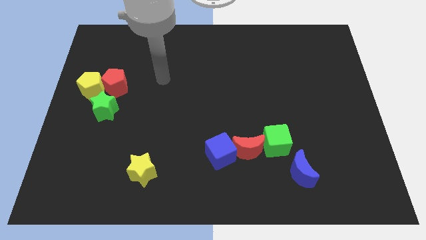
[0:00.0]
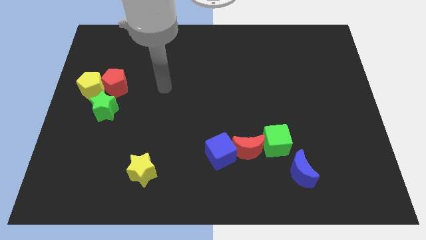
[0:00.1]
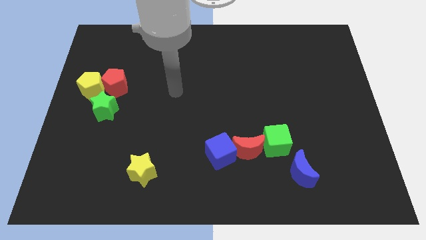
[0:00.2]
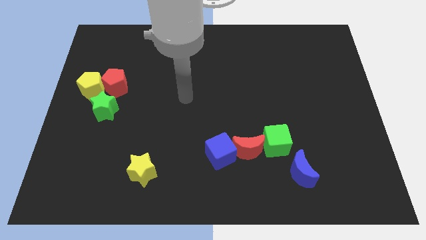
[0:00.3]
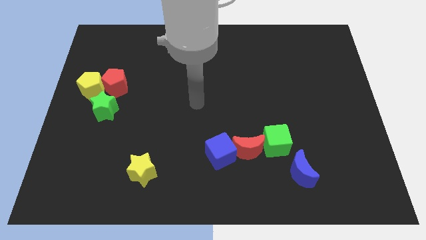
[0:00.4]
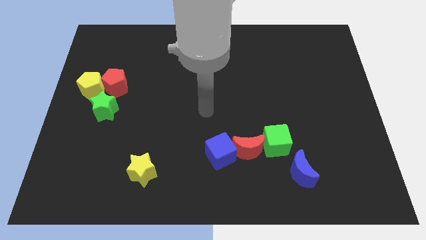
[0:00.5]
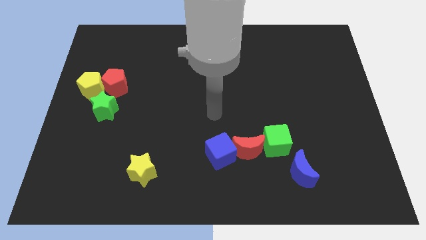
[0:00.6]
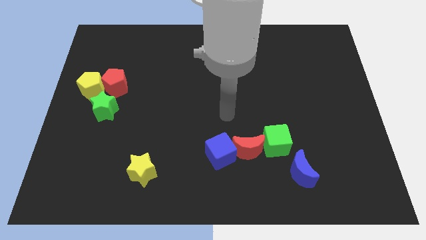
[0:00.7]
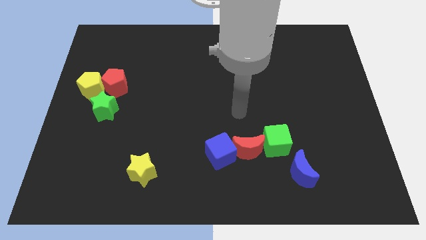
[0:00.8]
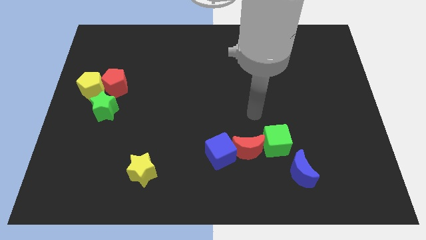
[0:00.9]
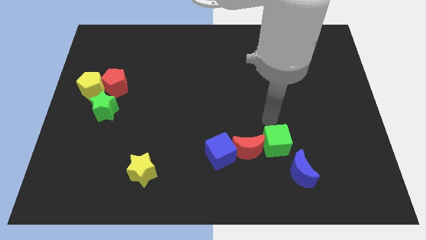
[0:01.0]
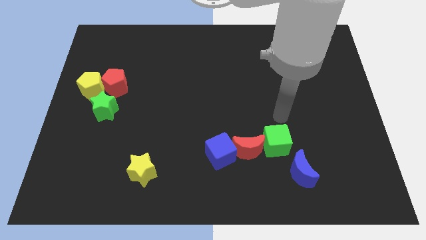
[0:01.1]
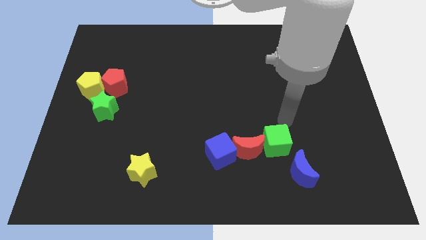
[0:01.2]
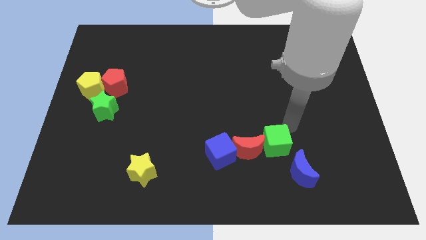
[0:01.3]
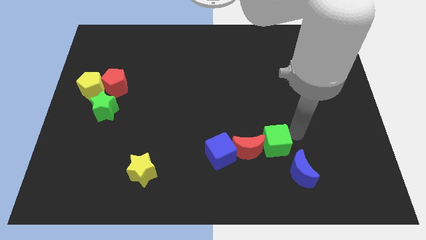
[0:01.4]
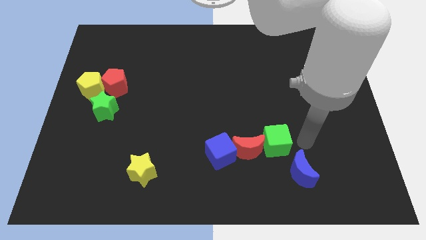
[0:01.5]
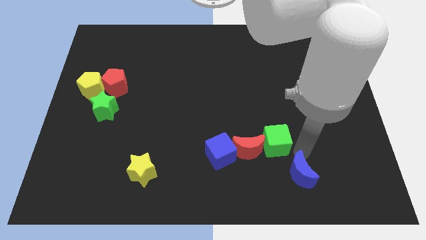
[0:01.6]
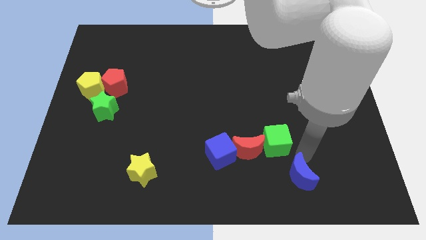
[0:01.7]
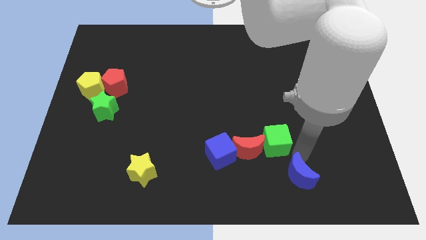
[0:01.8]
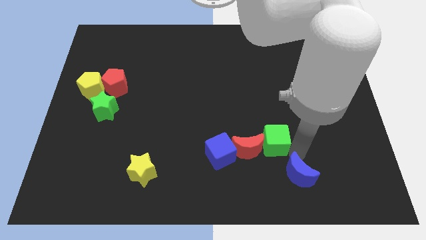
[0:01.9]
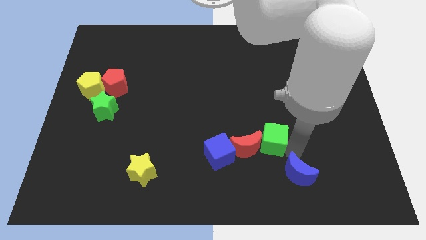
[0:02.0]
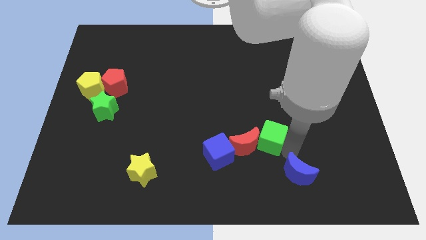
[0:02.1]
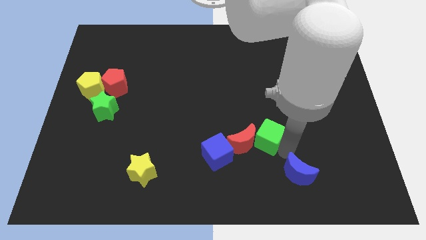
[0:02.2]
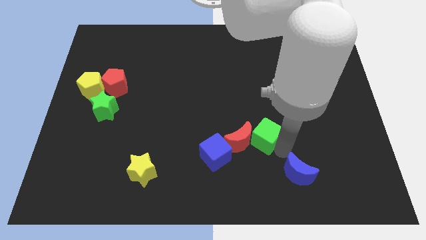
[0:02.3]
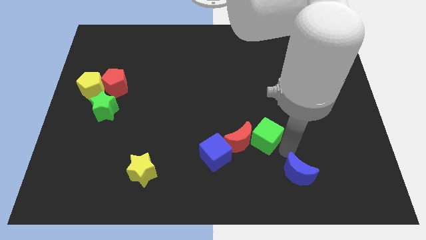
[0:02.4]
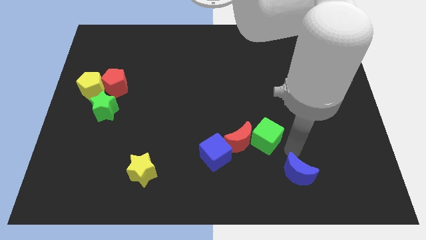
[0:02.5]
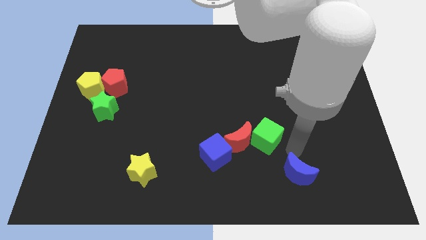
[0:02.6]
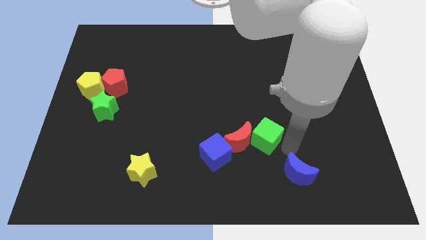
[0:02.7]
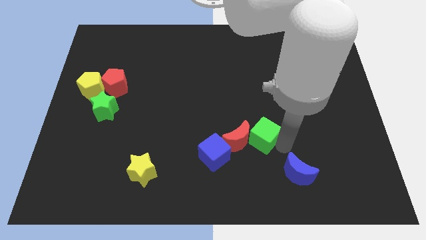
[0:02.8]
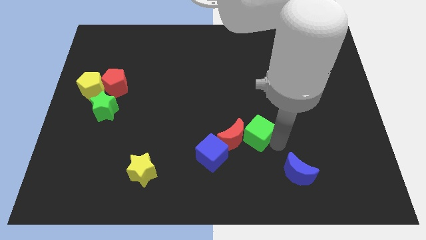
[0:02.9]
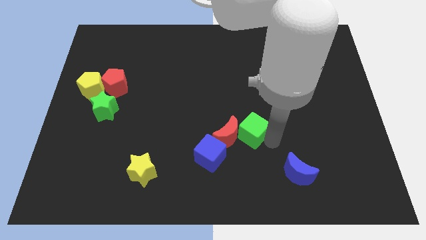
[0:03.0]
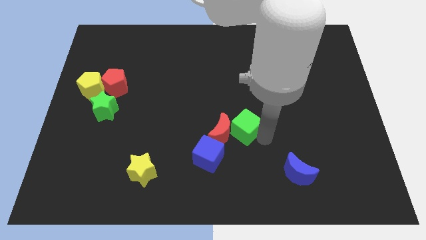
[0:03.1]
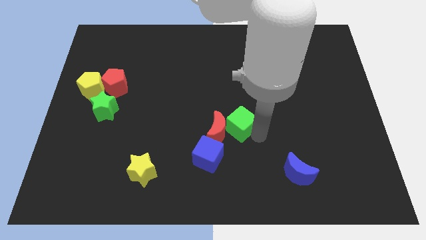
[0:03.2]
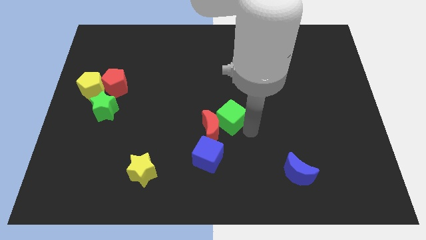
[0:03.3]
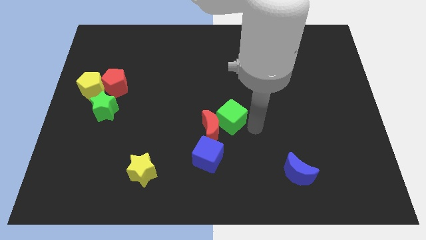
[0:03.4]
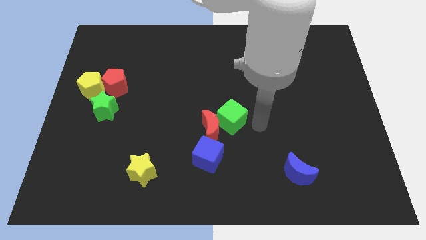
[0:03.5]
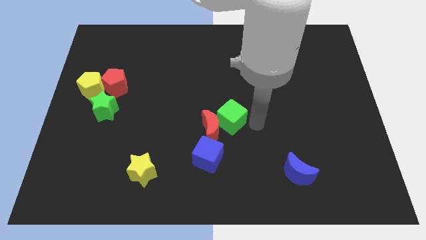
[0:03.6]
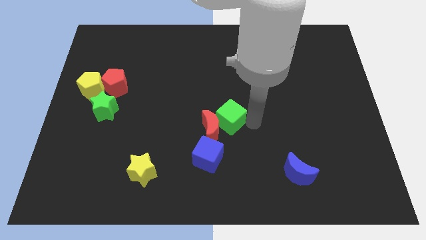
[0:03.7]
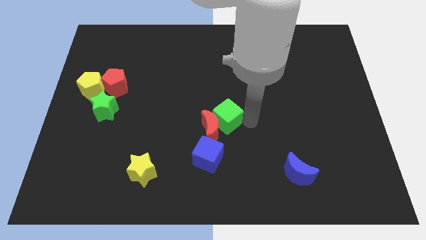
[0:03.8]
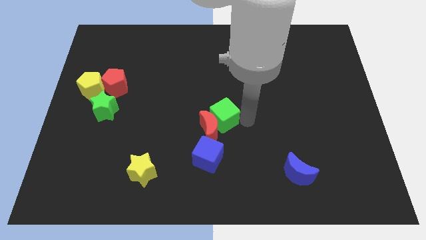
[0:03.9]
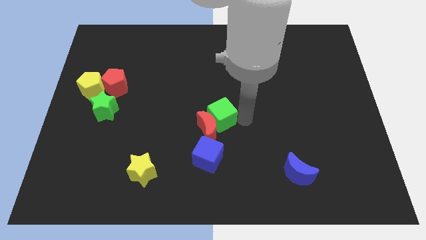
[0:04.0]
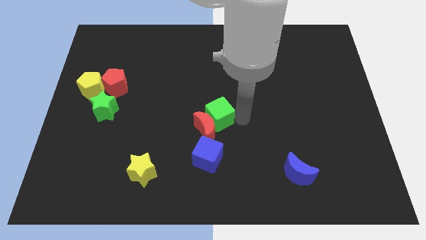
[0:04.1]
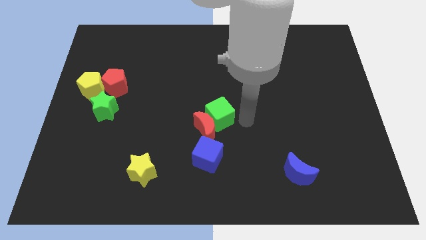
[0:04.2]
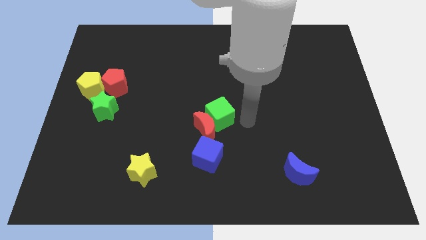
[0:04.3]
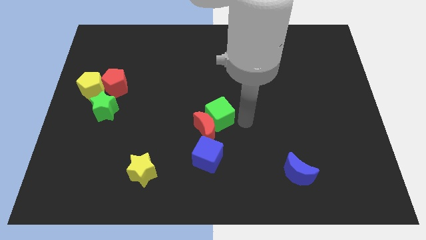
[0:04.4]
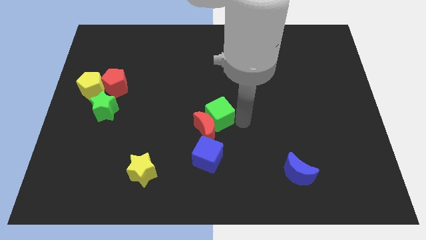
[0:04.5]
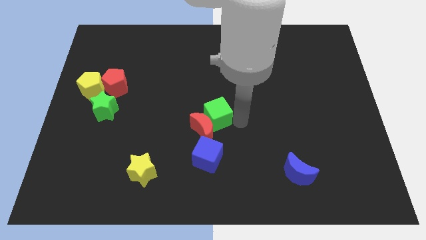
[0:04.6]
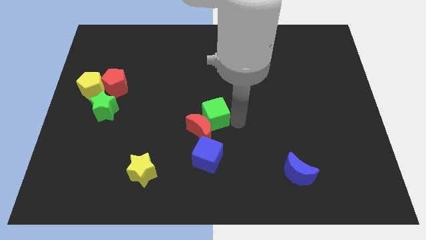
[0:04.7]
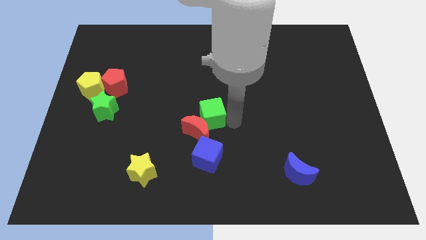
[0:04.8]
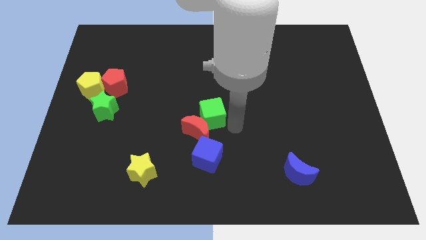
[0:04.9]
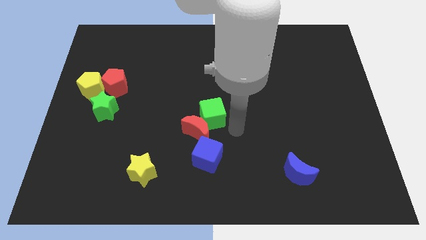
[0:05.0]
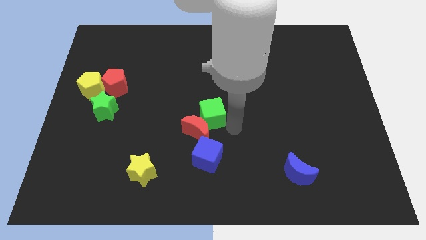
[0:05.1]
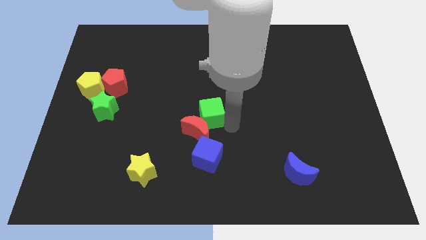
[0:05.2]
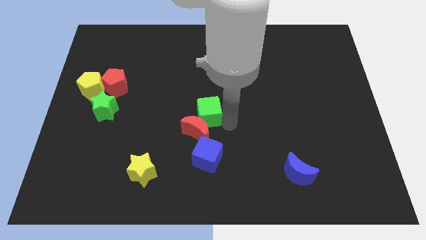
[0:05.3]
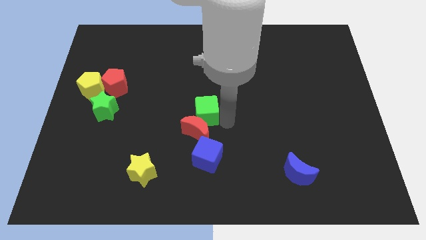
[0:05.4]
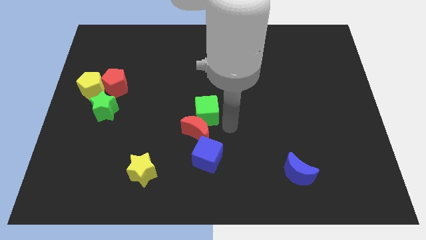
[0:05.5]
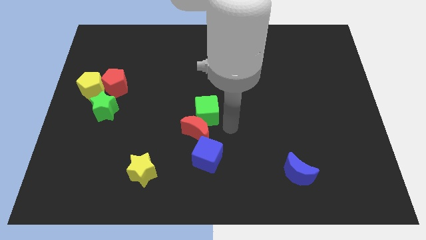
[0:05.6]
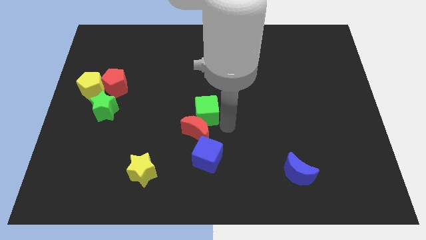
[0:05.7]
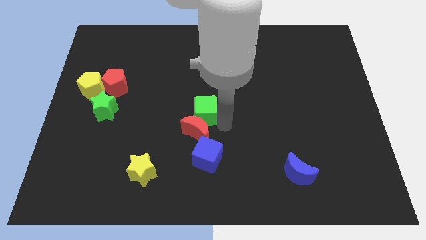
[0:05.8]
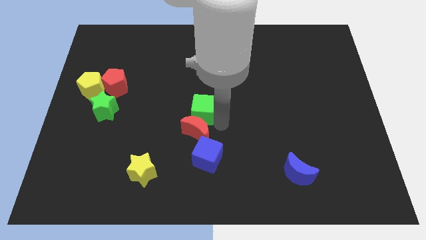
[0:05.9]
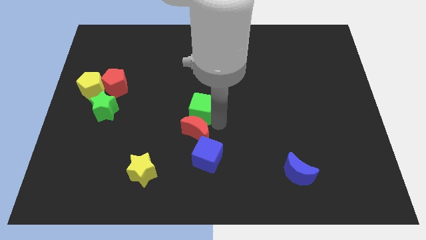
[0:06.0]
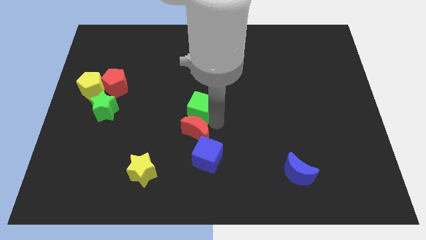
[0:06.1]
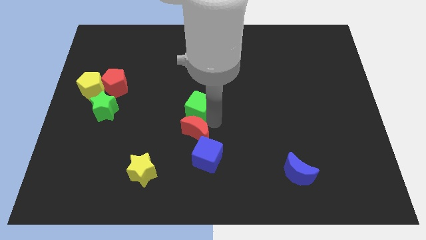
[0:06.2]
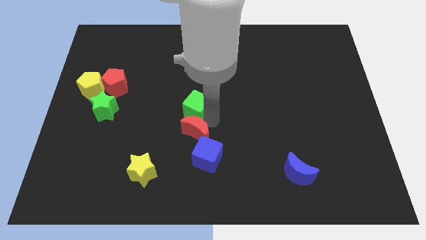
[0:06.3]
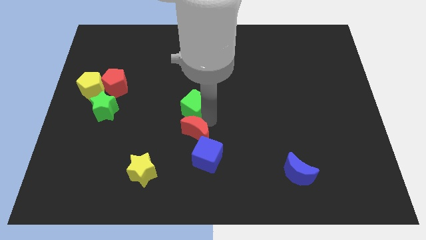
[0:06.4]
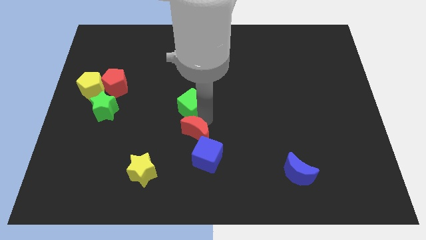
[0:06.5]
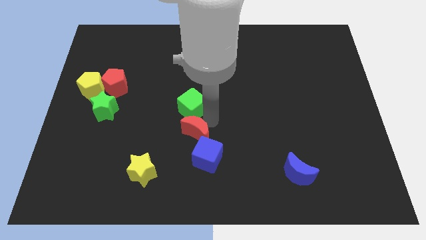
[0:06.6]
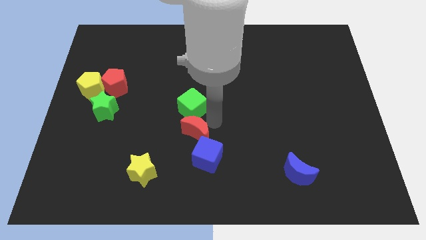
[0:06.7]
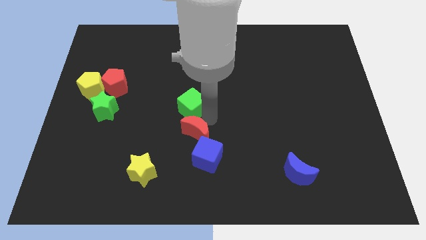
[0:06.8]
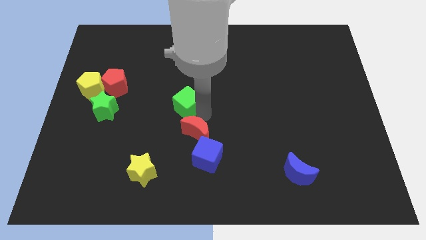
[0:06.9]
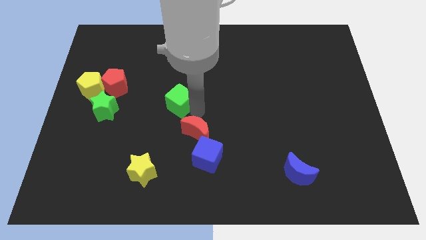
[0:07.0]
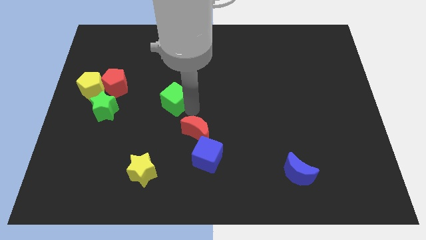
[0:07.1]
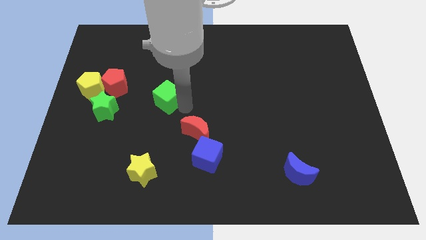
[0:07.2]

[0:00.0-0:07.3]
slide the green cube just right of the red pentagon
